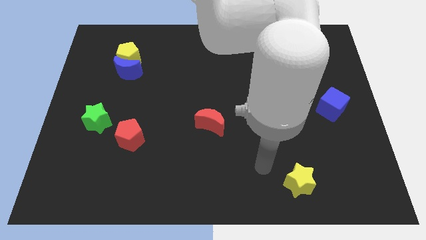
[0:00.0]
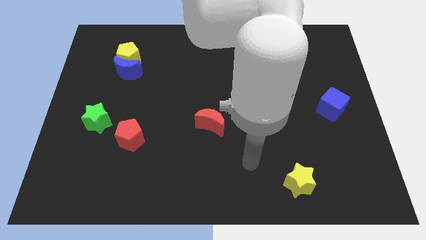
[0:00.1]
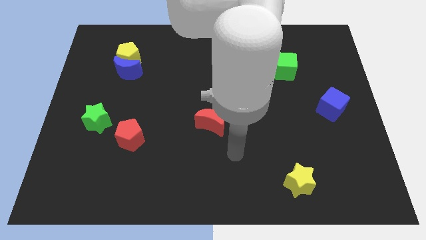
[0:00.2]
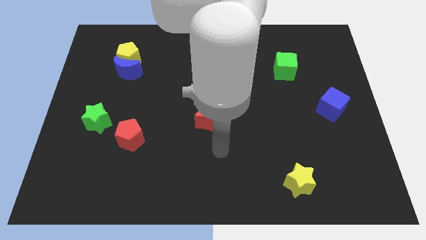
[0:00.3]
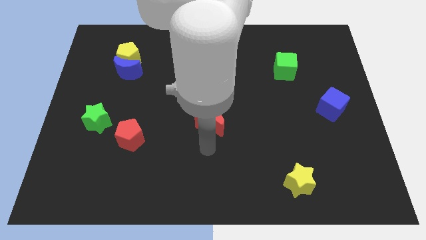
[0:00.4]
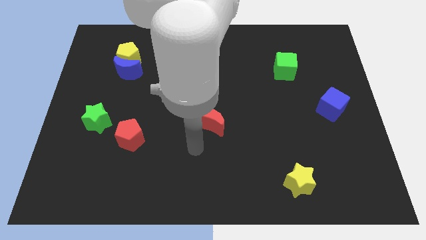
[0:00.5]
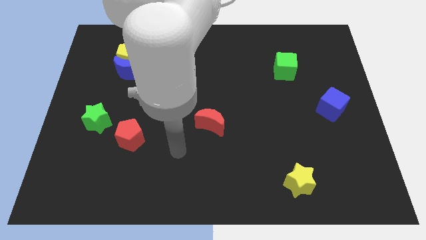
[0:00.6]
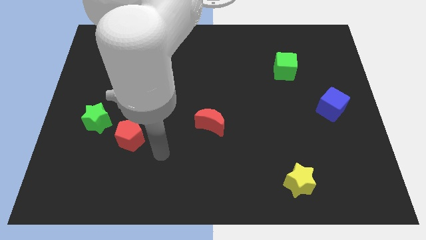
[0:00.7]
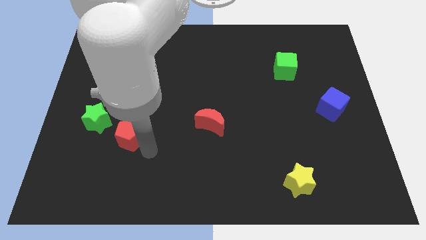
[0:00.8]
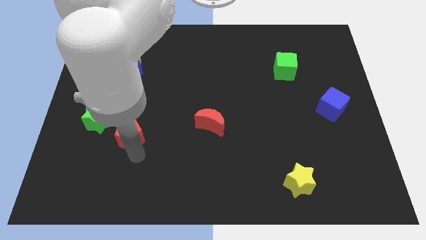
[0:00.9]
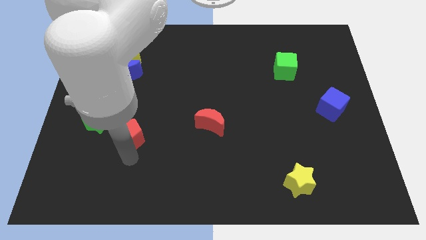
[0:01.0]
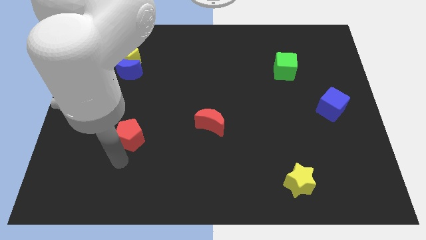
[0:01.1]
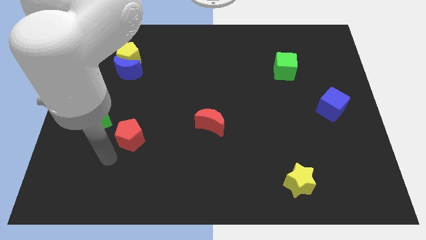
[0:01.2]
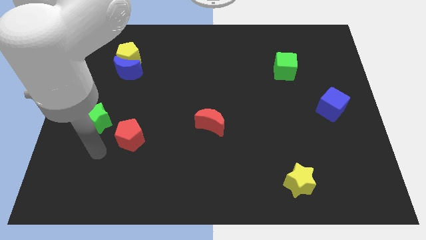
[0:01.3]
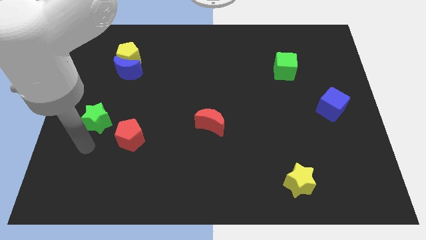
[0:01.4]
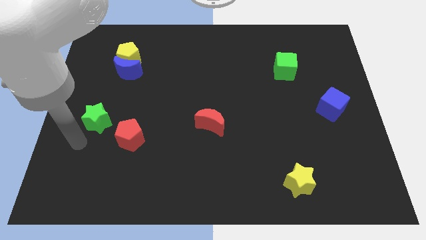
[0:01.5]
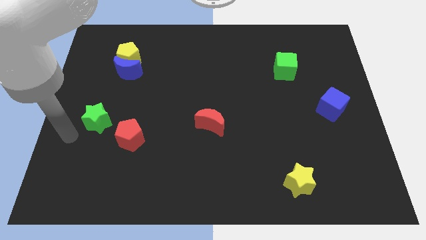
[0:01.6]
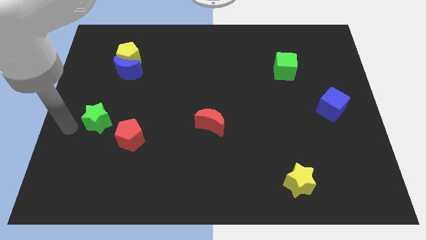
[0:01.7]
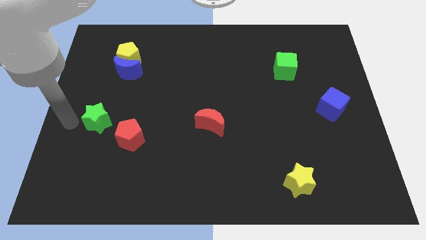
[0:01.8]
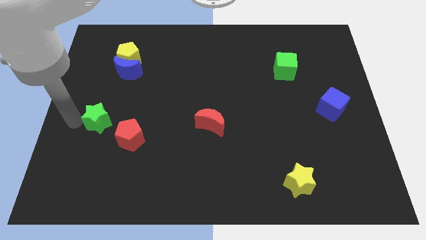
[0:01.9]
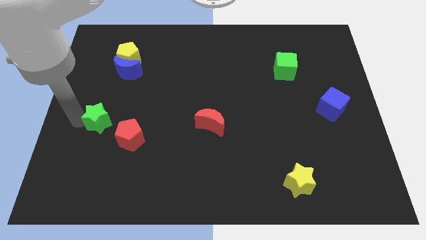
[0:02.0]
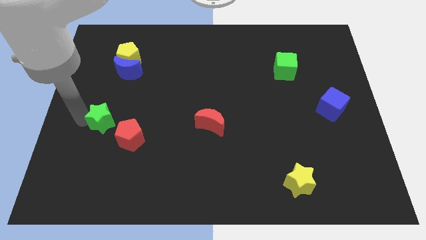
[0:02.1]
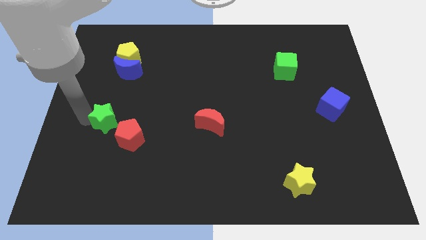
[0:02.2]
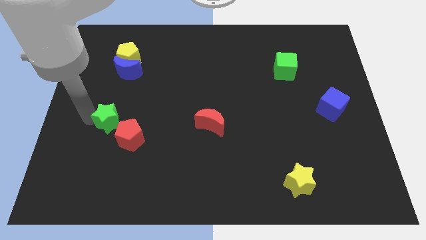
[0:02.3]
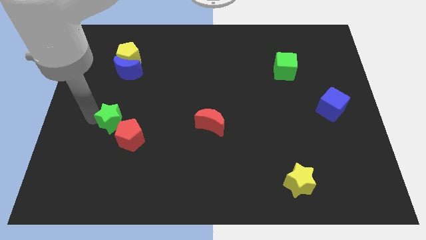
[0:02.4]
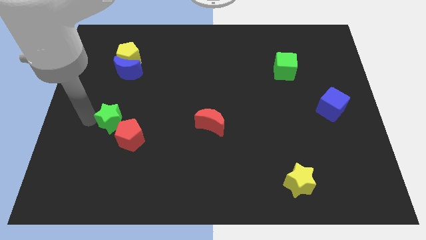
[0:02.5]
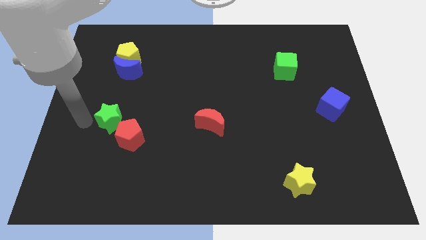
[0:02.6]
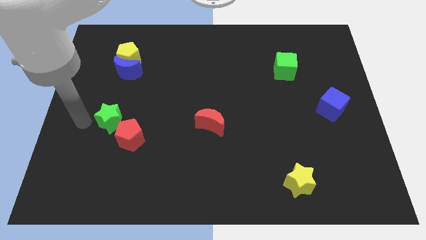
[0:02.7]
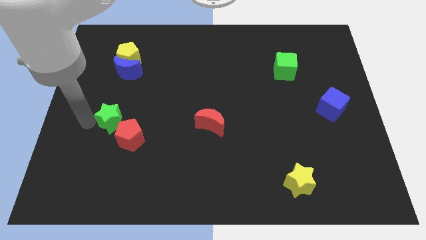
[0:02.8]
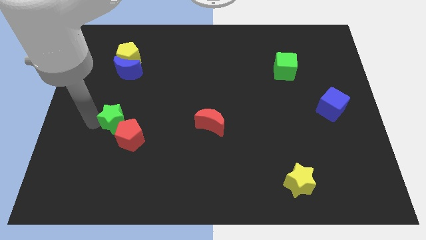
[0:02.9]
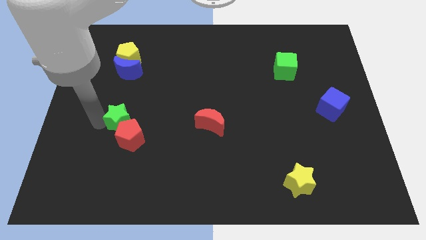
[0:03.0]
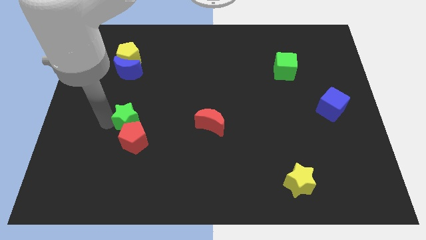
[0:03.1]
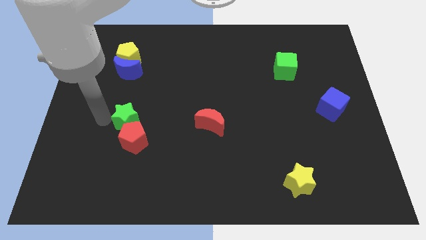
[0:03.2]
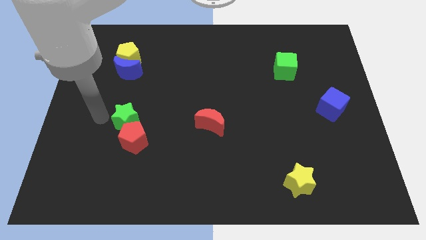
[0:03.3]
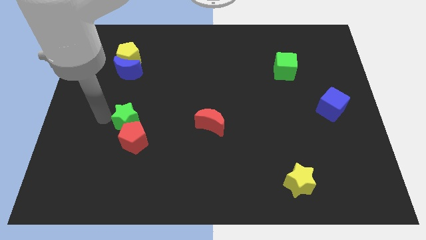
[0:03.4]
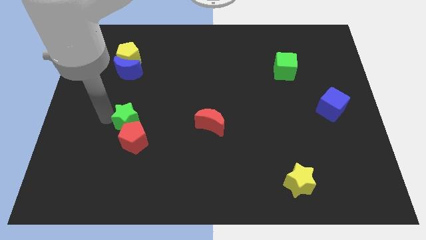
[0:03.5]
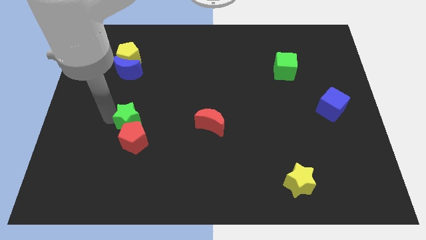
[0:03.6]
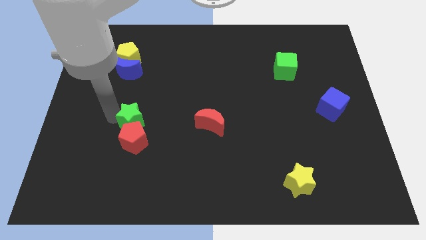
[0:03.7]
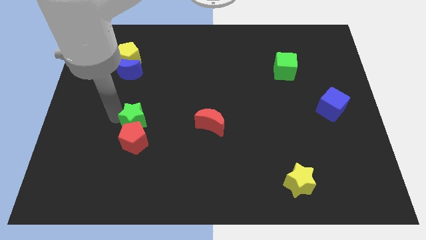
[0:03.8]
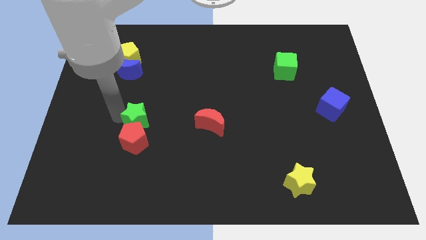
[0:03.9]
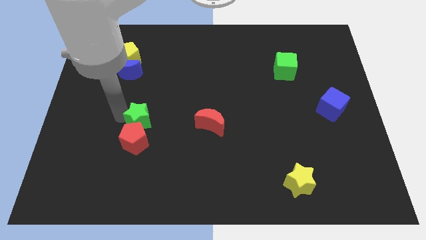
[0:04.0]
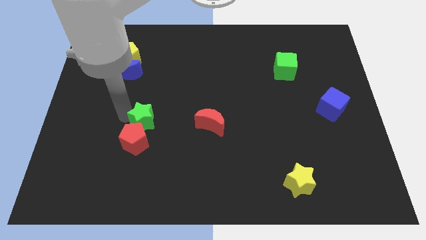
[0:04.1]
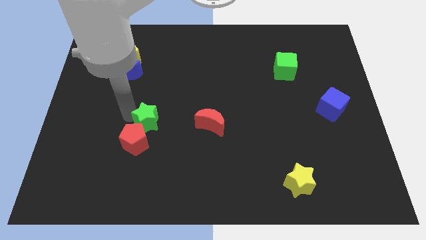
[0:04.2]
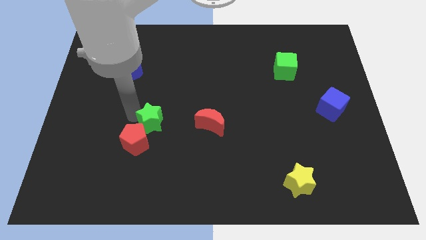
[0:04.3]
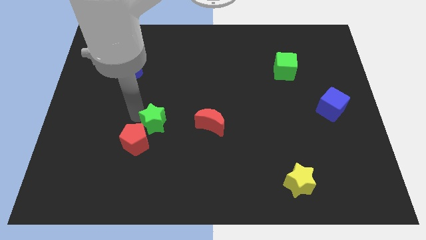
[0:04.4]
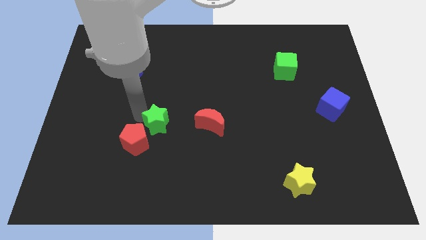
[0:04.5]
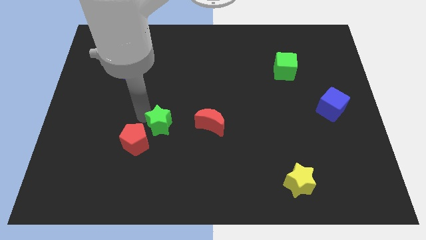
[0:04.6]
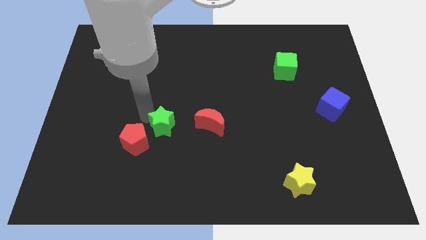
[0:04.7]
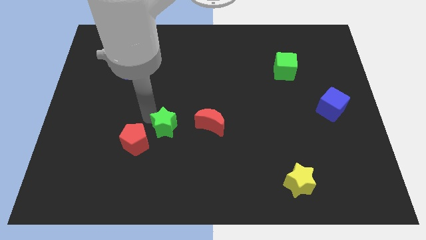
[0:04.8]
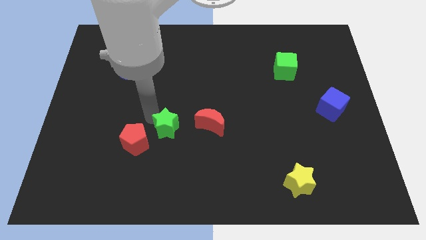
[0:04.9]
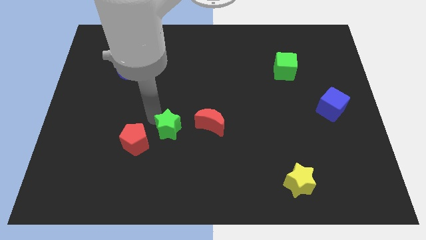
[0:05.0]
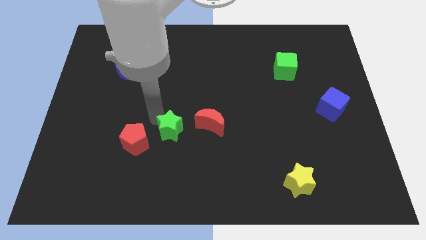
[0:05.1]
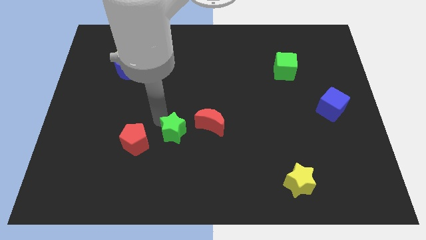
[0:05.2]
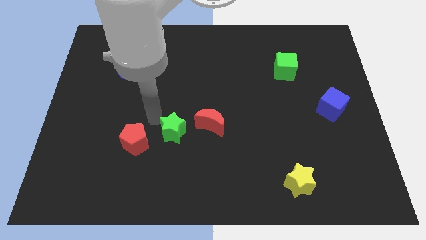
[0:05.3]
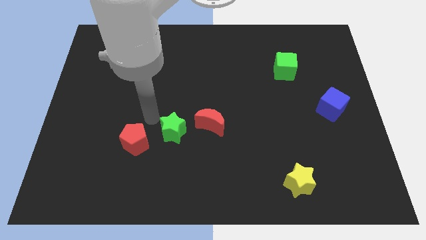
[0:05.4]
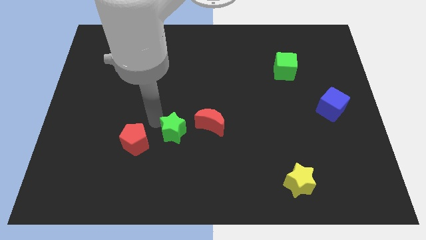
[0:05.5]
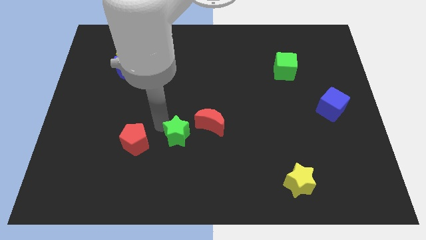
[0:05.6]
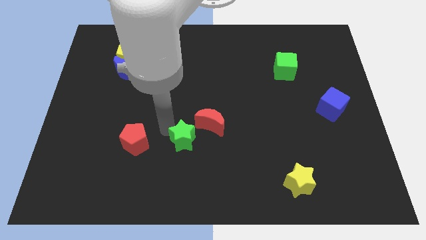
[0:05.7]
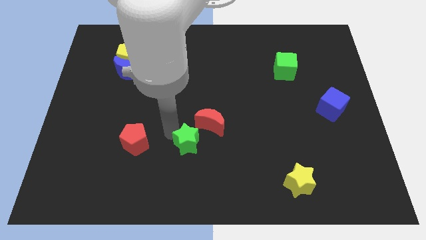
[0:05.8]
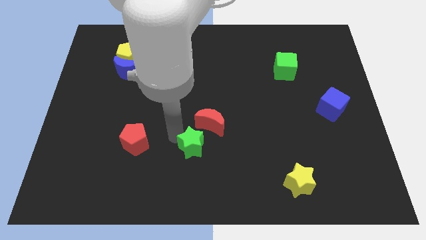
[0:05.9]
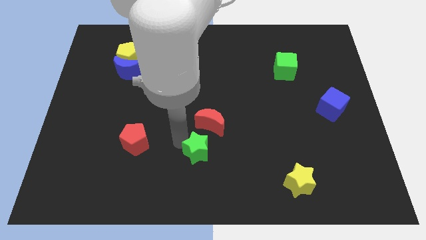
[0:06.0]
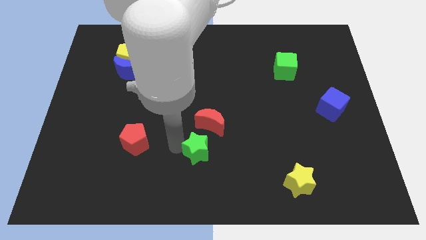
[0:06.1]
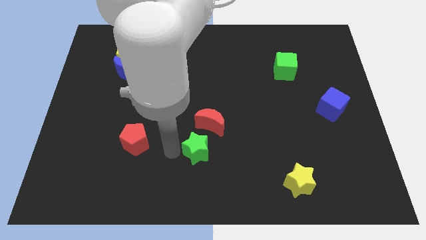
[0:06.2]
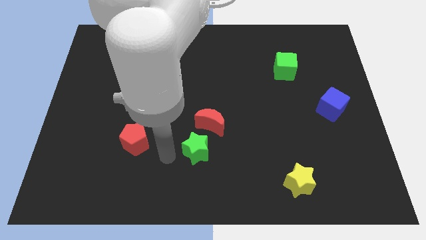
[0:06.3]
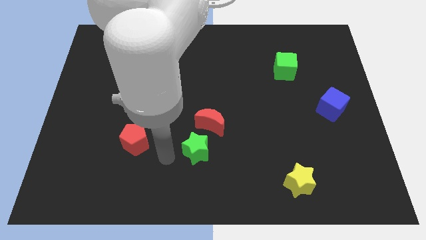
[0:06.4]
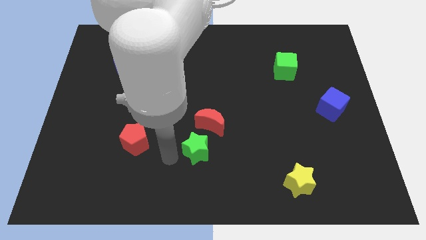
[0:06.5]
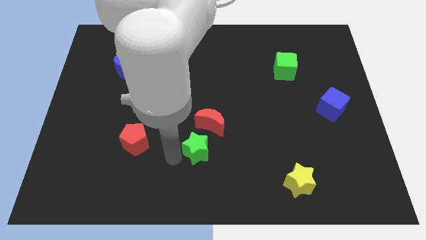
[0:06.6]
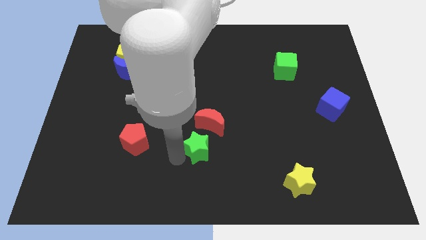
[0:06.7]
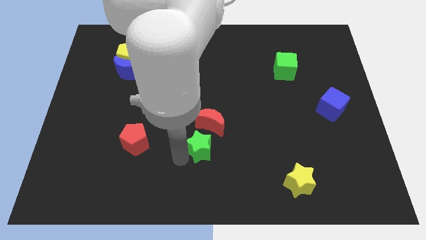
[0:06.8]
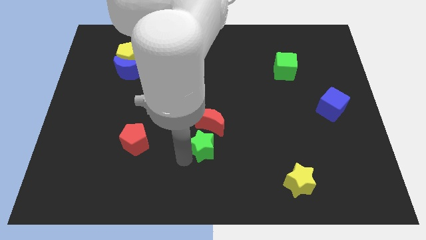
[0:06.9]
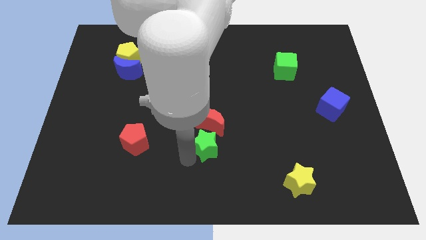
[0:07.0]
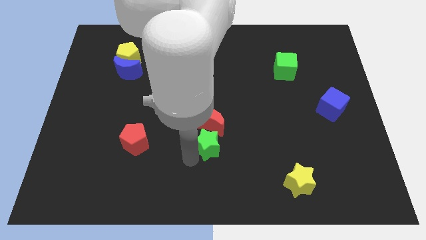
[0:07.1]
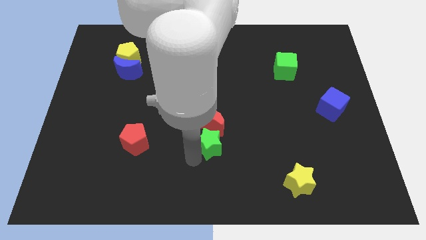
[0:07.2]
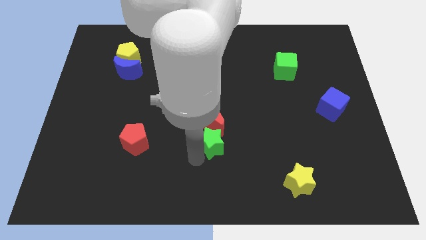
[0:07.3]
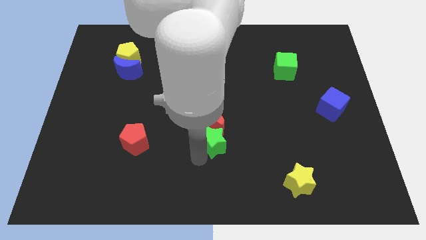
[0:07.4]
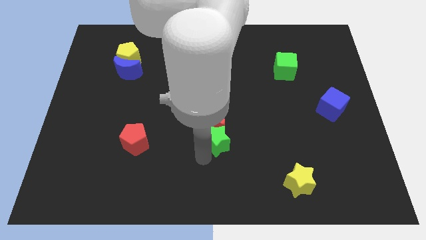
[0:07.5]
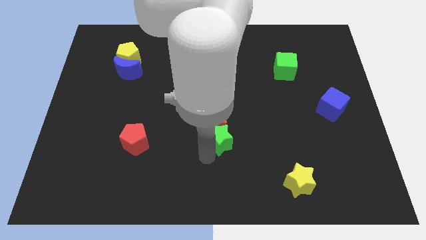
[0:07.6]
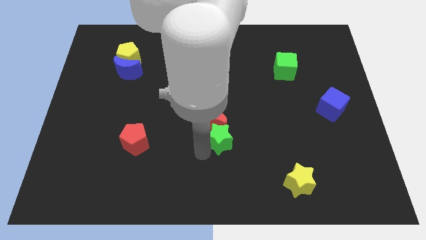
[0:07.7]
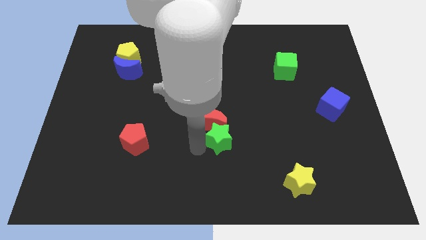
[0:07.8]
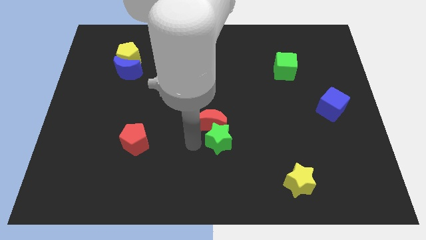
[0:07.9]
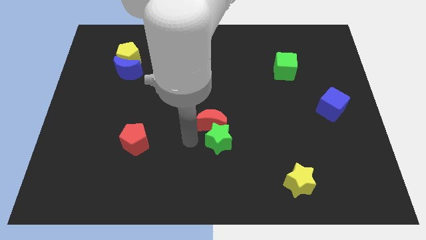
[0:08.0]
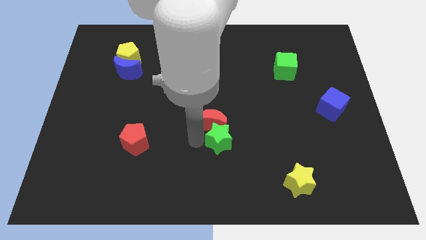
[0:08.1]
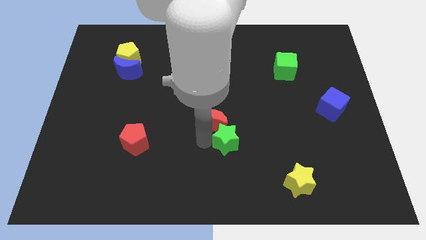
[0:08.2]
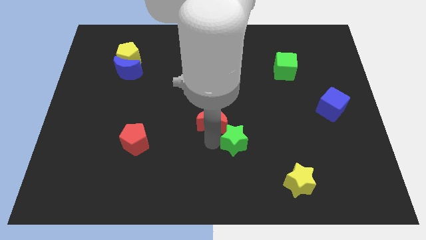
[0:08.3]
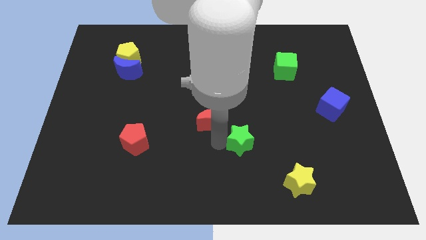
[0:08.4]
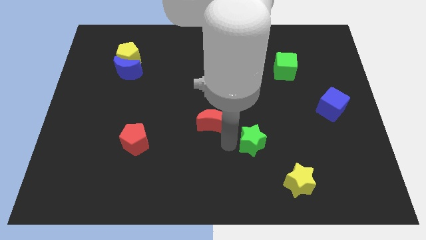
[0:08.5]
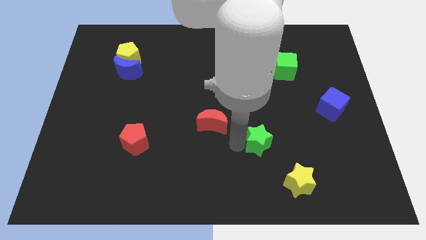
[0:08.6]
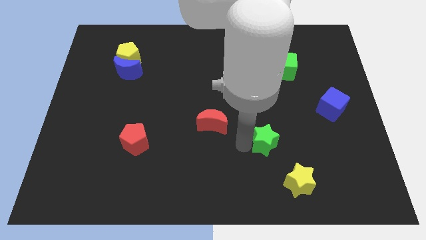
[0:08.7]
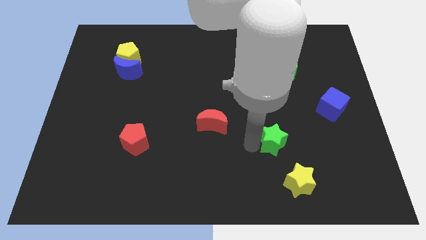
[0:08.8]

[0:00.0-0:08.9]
push the green star to the top side of the yellow star
